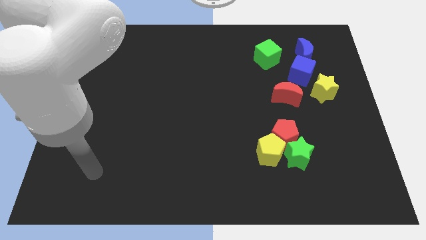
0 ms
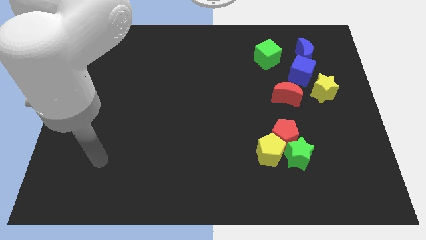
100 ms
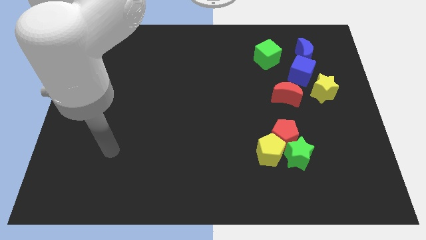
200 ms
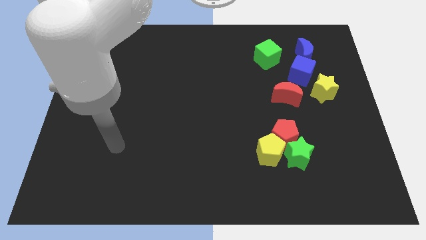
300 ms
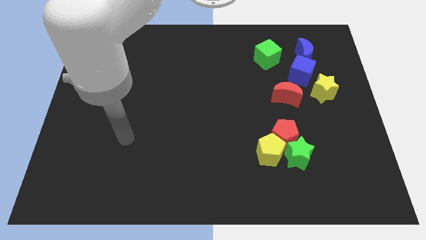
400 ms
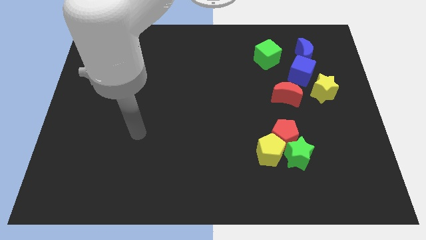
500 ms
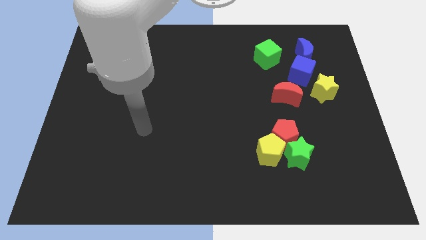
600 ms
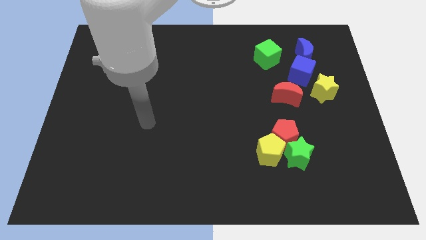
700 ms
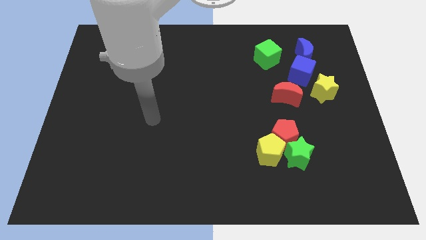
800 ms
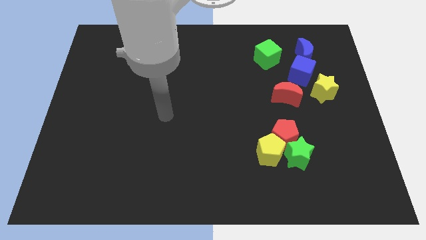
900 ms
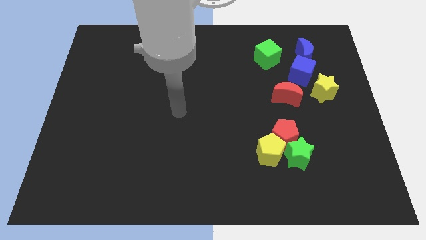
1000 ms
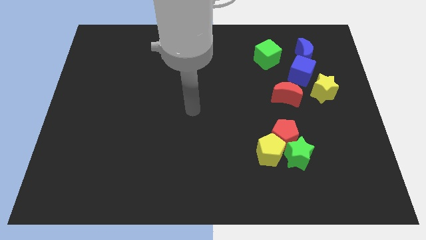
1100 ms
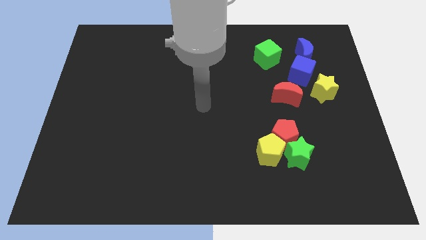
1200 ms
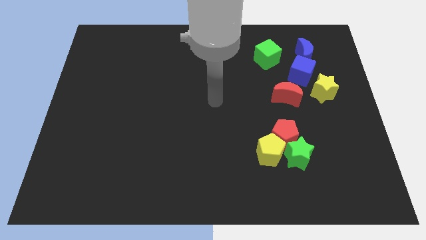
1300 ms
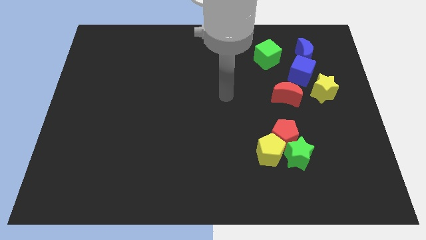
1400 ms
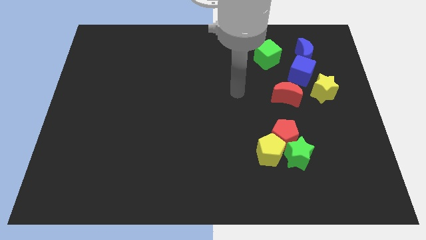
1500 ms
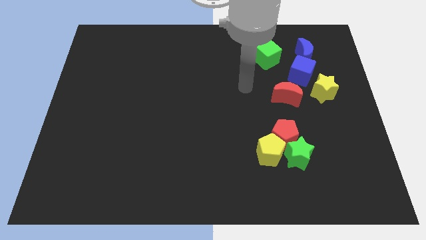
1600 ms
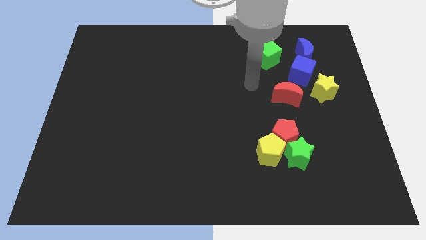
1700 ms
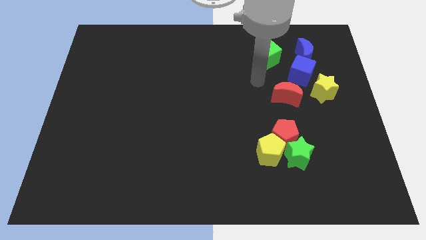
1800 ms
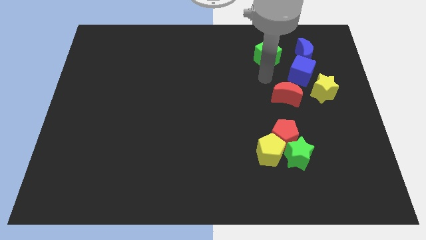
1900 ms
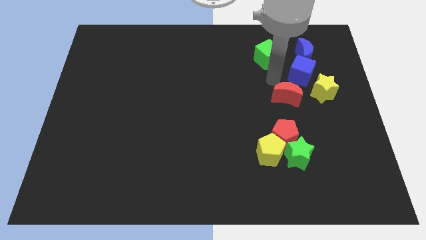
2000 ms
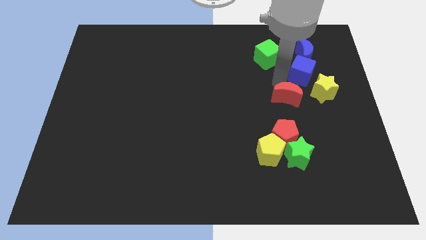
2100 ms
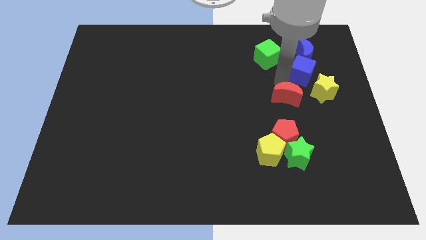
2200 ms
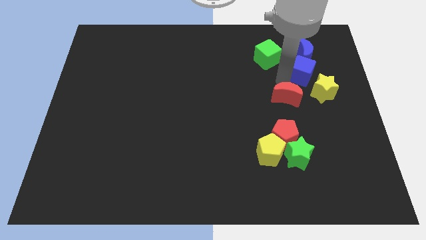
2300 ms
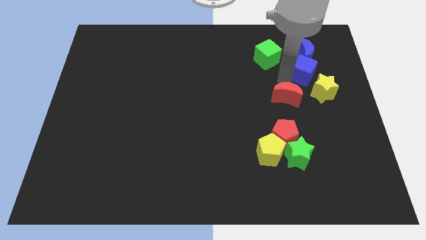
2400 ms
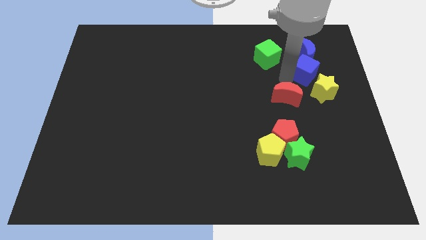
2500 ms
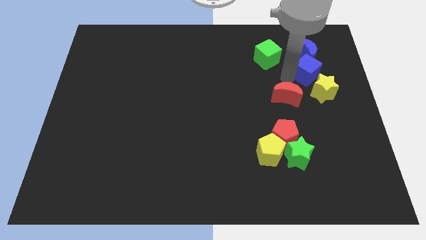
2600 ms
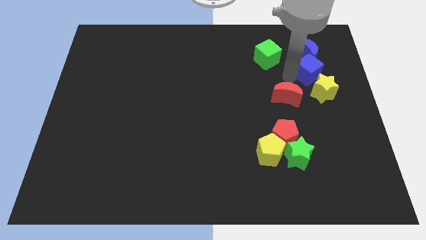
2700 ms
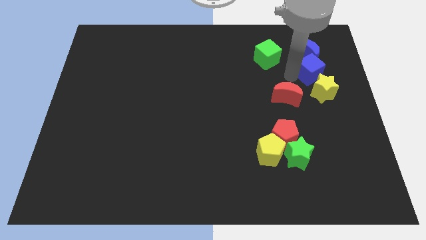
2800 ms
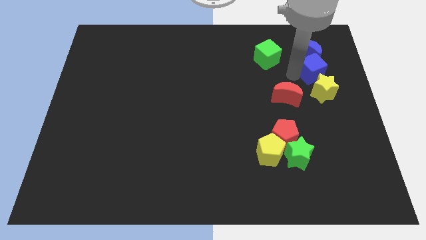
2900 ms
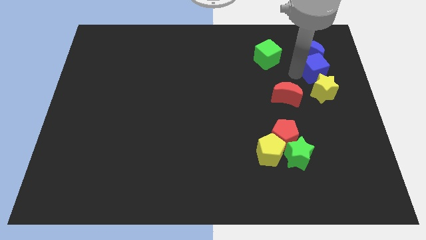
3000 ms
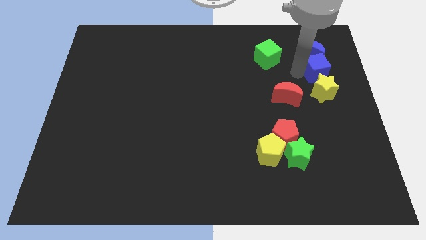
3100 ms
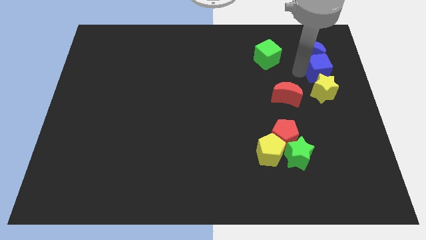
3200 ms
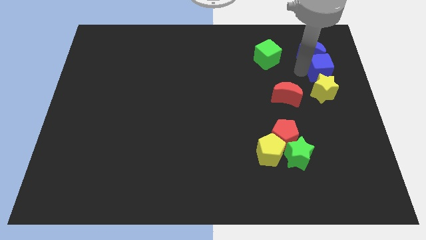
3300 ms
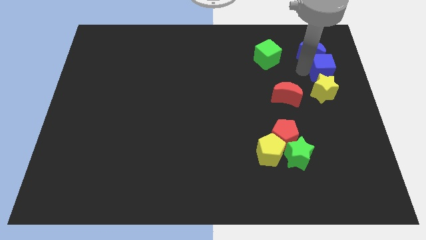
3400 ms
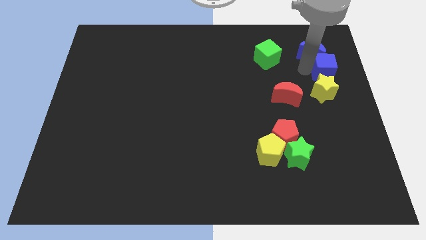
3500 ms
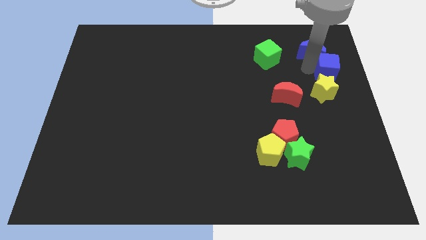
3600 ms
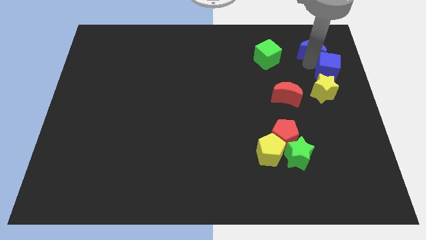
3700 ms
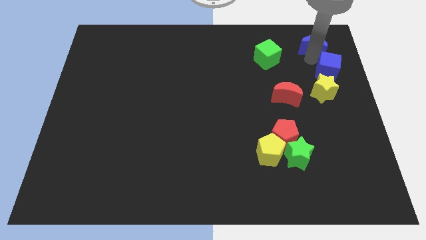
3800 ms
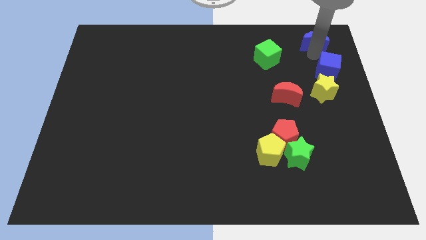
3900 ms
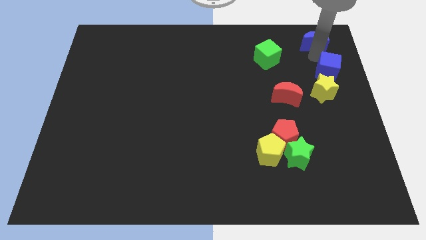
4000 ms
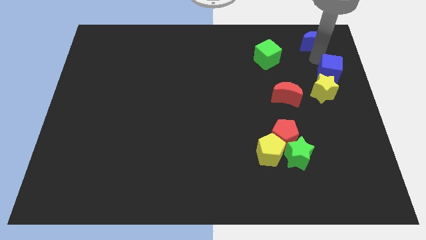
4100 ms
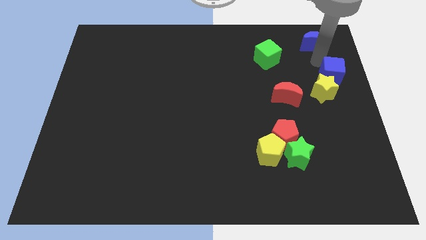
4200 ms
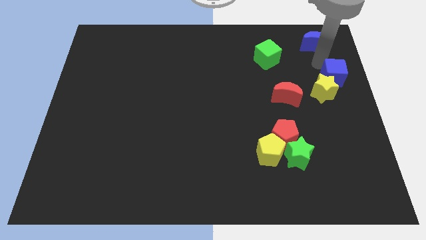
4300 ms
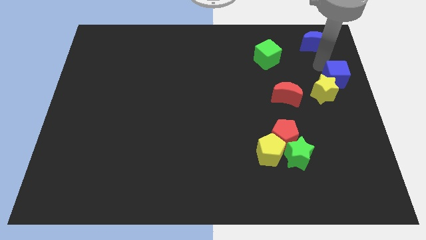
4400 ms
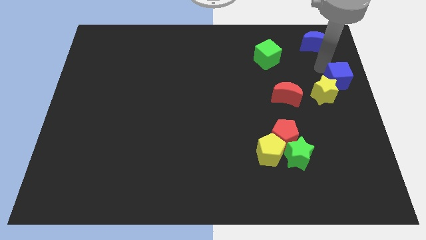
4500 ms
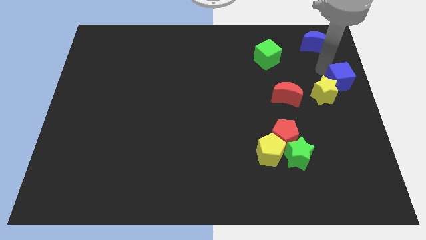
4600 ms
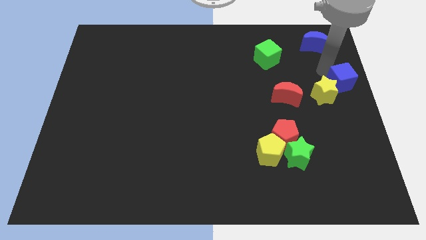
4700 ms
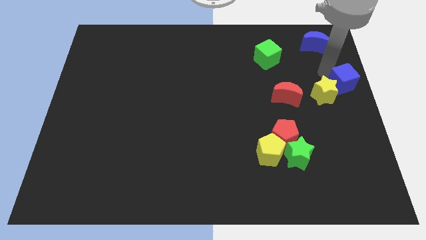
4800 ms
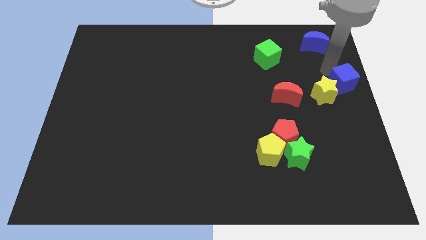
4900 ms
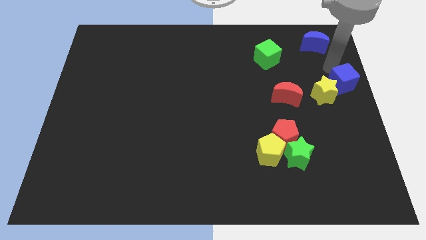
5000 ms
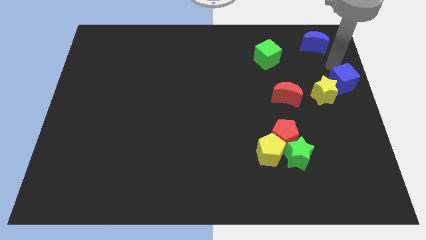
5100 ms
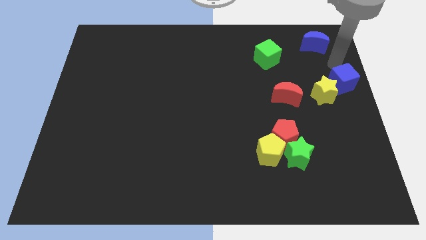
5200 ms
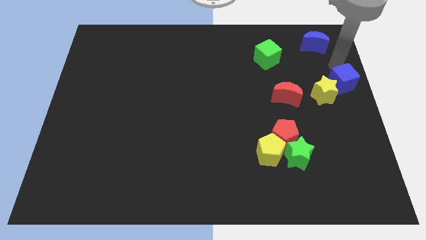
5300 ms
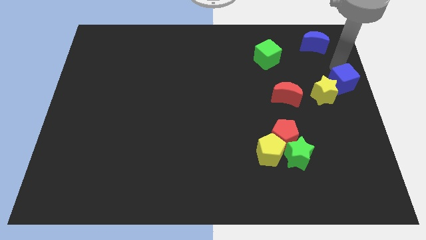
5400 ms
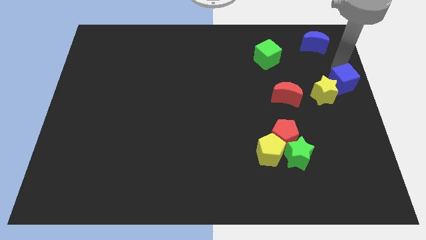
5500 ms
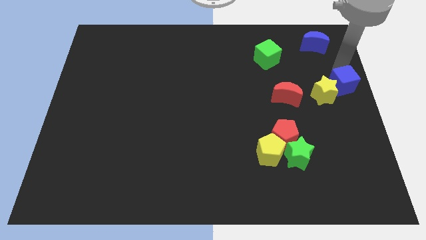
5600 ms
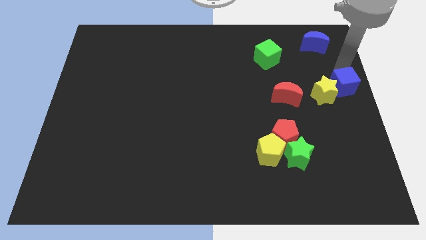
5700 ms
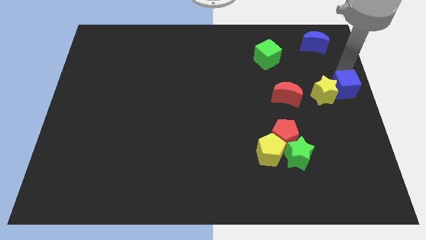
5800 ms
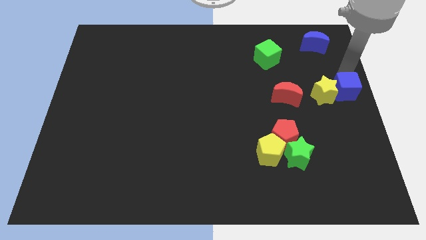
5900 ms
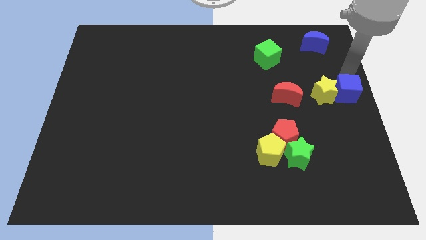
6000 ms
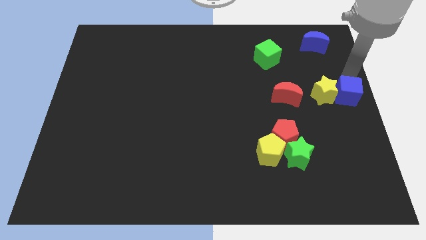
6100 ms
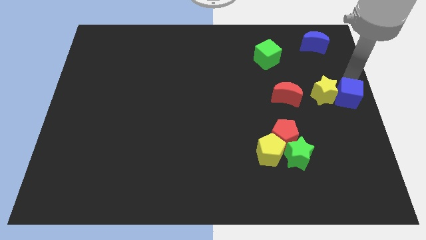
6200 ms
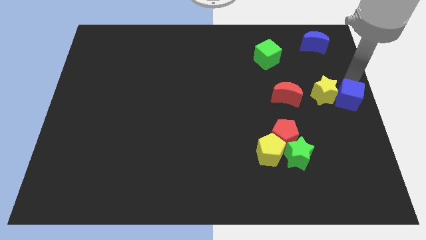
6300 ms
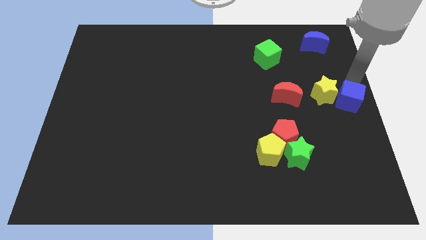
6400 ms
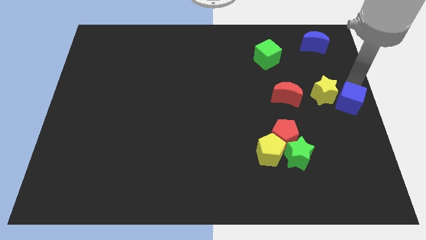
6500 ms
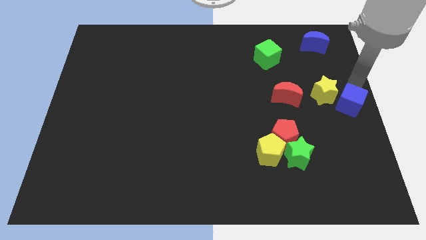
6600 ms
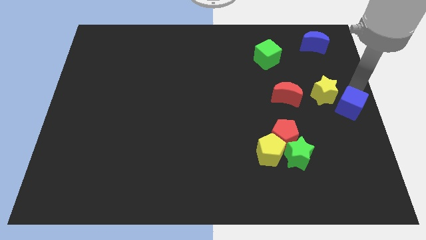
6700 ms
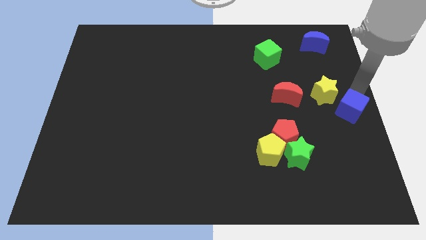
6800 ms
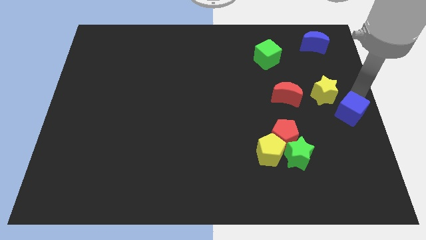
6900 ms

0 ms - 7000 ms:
slide the blue cube below the yellow star

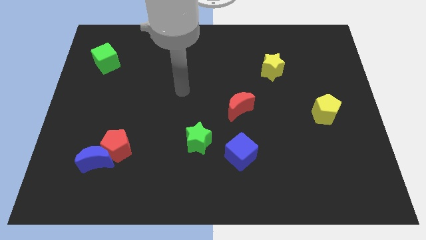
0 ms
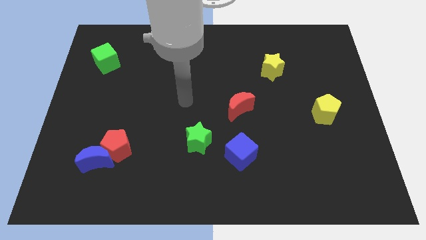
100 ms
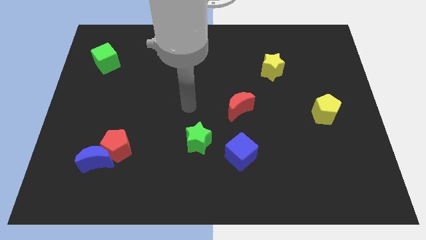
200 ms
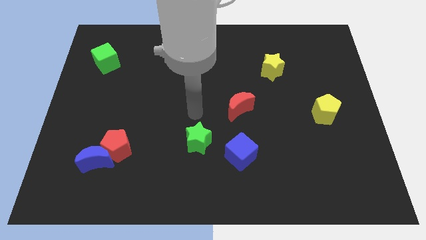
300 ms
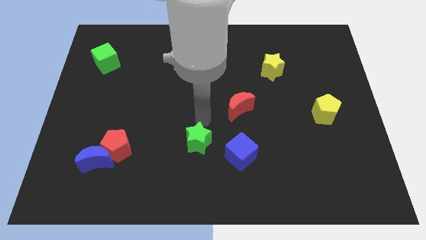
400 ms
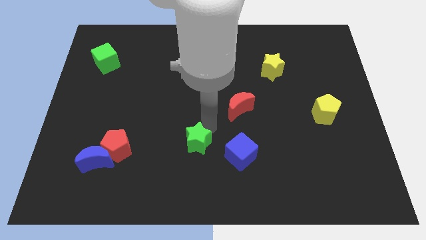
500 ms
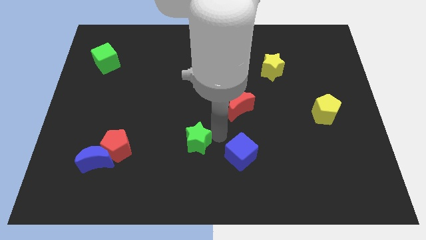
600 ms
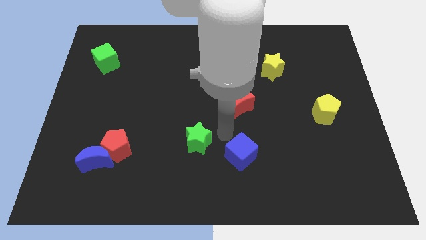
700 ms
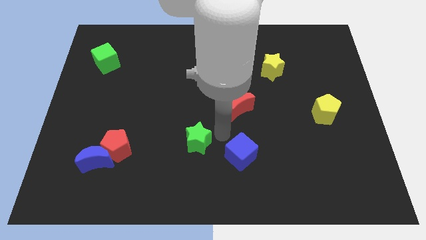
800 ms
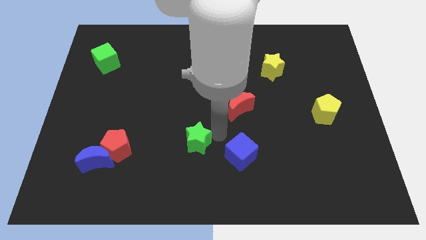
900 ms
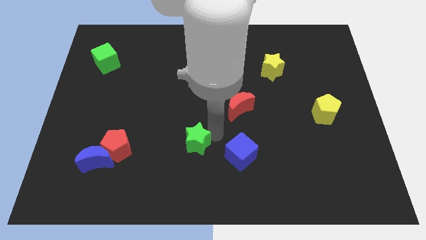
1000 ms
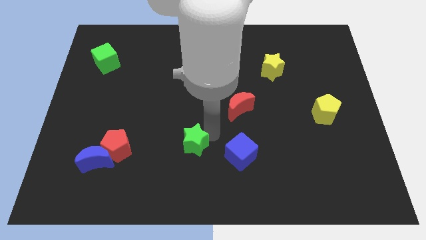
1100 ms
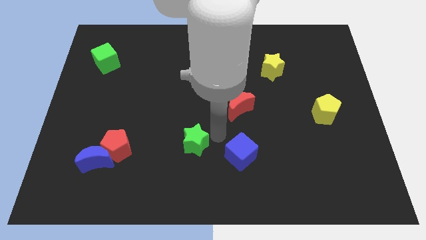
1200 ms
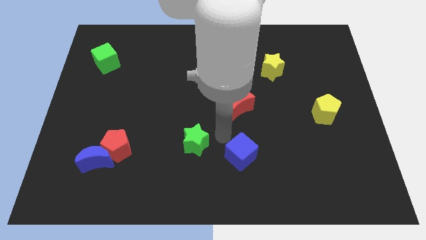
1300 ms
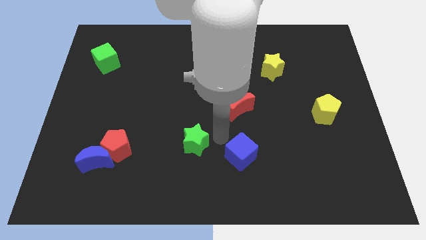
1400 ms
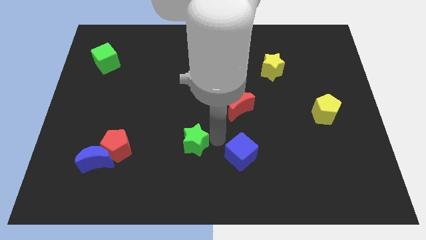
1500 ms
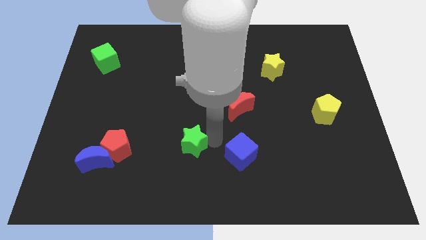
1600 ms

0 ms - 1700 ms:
put the green star right of the red pentagon
